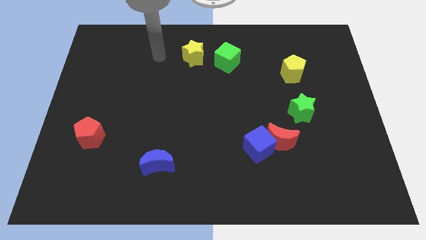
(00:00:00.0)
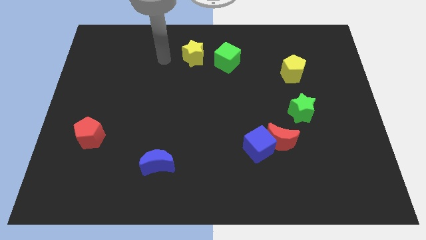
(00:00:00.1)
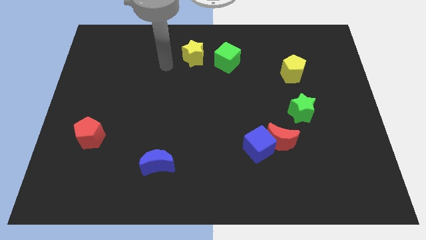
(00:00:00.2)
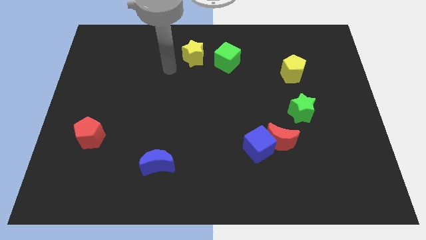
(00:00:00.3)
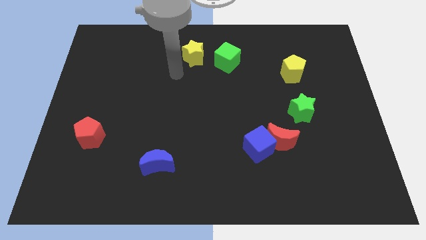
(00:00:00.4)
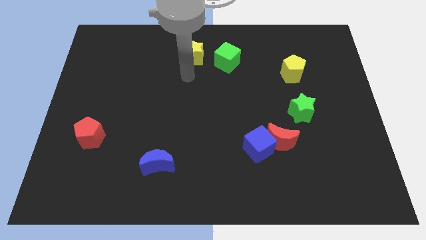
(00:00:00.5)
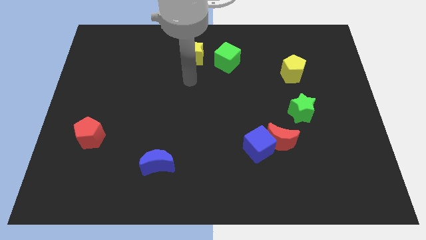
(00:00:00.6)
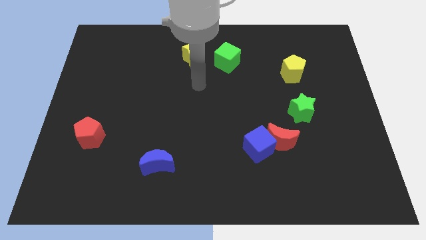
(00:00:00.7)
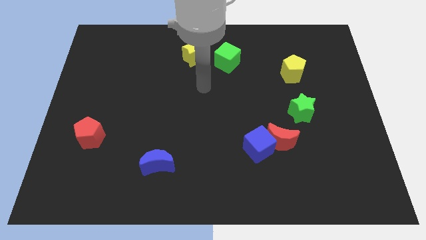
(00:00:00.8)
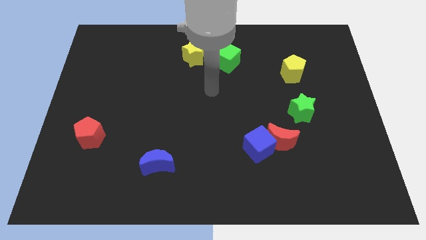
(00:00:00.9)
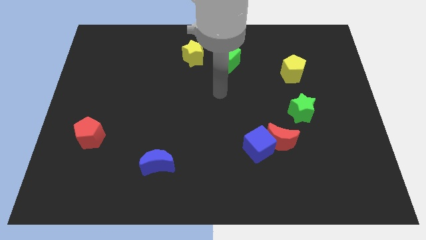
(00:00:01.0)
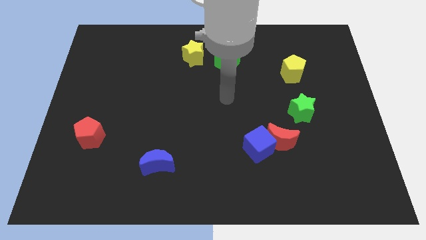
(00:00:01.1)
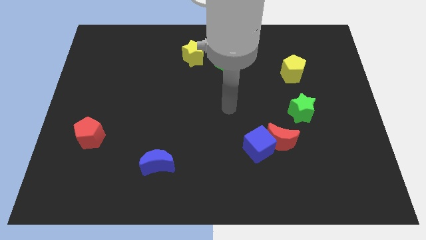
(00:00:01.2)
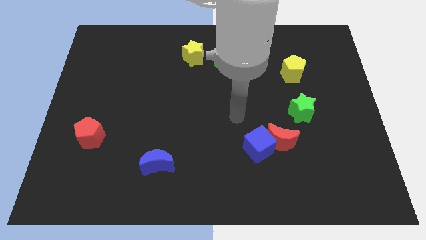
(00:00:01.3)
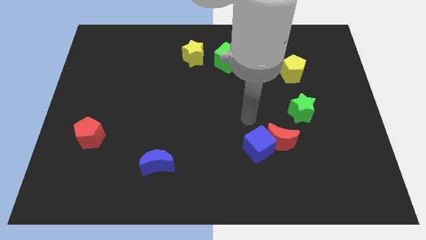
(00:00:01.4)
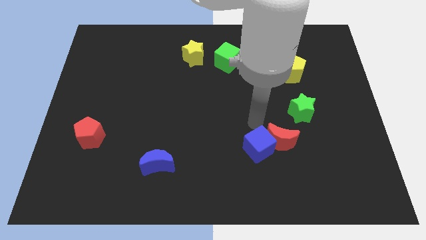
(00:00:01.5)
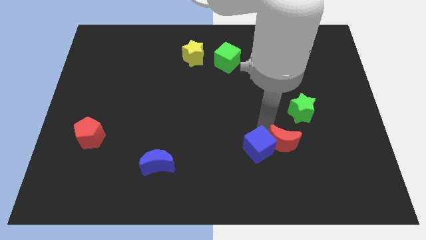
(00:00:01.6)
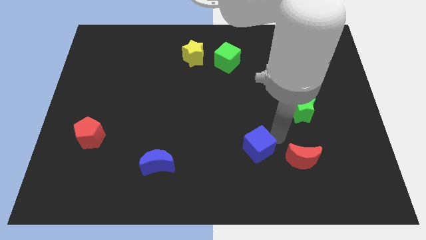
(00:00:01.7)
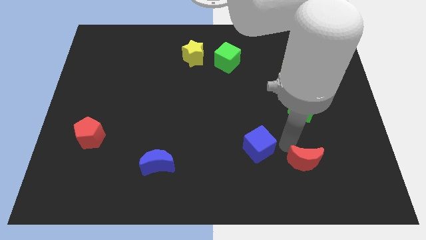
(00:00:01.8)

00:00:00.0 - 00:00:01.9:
separate the blue cube from the red moon

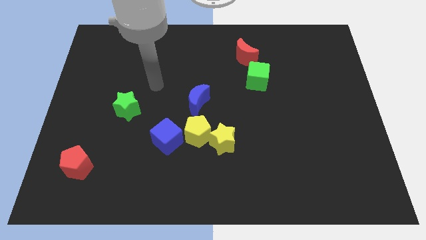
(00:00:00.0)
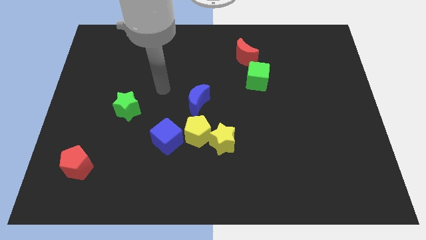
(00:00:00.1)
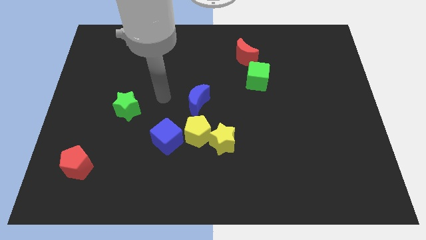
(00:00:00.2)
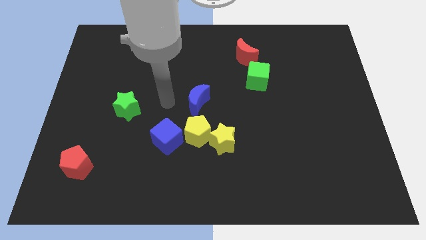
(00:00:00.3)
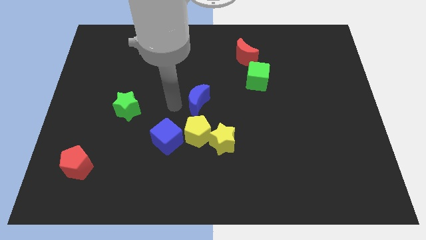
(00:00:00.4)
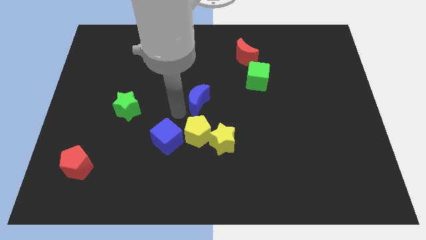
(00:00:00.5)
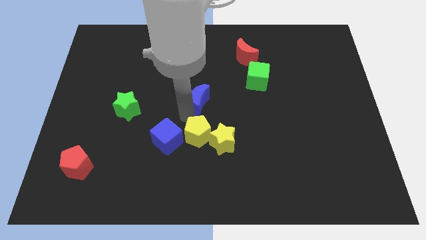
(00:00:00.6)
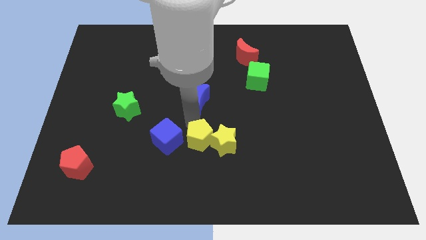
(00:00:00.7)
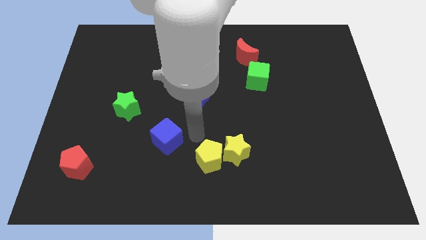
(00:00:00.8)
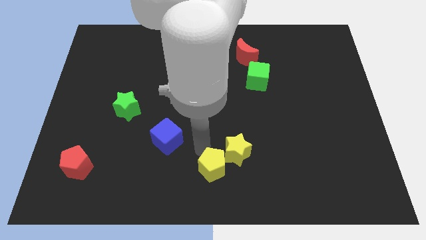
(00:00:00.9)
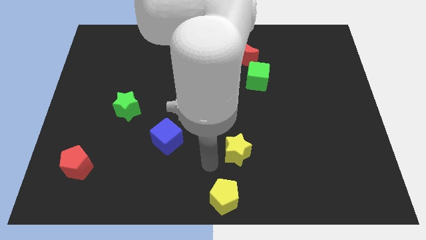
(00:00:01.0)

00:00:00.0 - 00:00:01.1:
pull the yellow star apart from the yellow pentagon

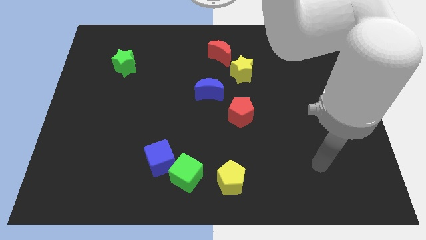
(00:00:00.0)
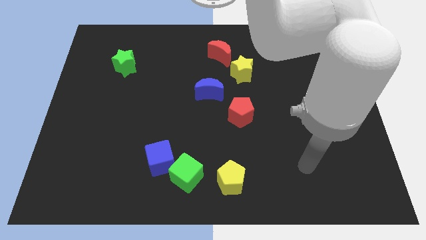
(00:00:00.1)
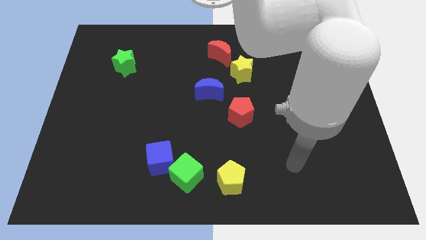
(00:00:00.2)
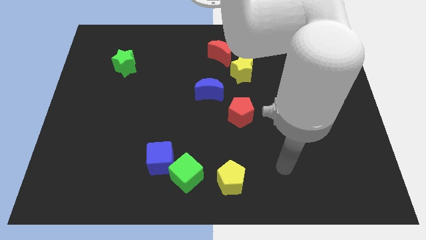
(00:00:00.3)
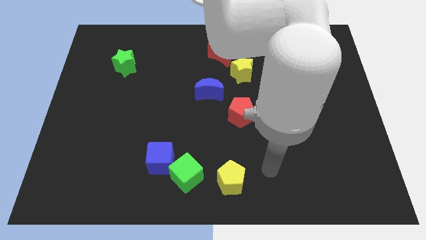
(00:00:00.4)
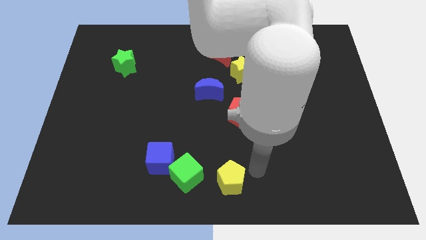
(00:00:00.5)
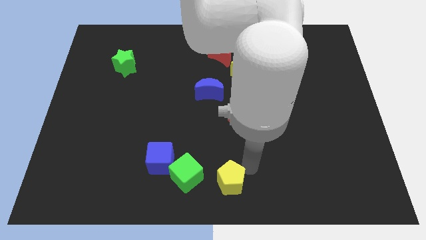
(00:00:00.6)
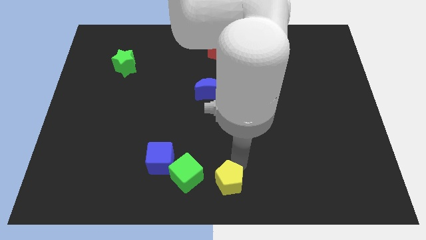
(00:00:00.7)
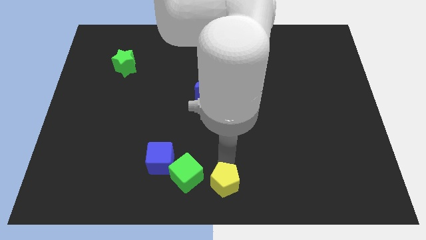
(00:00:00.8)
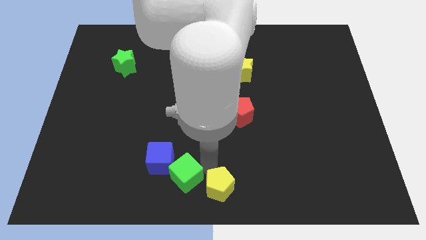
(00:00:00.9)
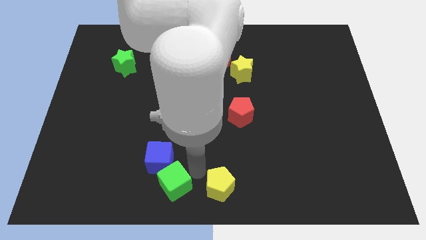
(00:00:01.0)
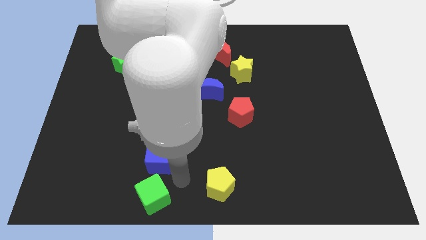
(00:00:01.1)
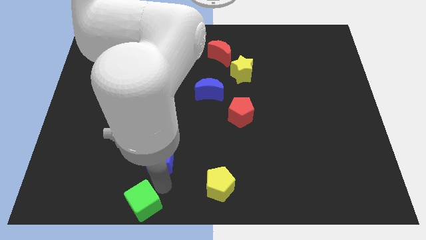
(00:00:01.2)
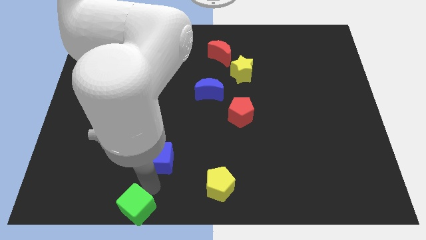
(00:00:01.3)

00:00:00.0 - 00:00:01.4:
separate the blue cube from the green cube

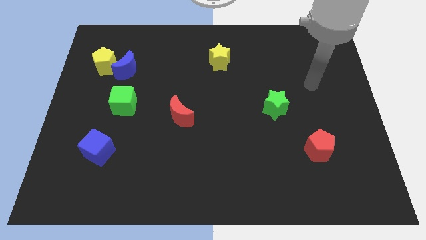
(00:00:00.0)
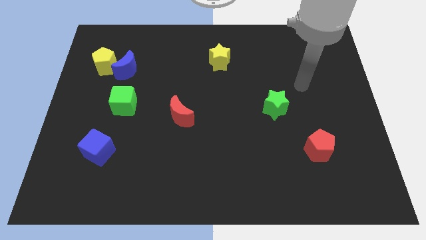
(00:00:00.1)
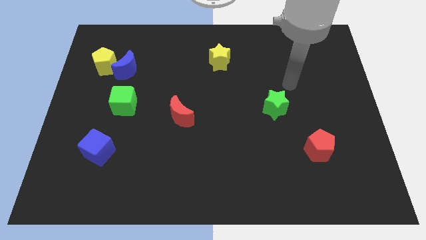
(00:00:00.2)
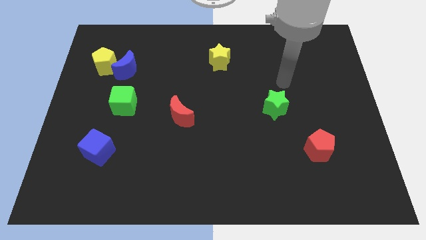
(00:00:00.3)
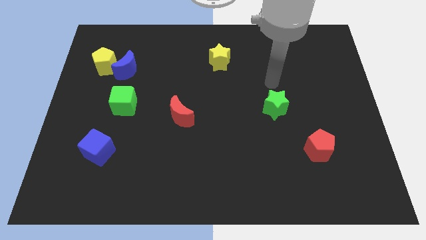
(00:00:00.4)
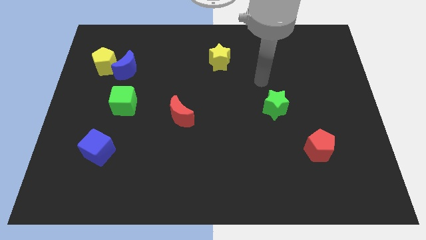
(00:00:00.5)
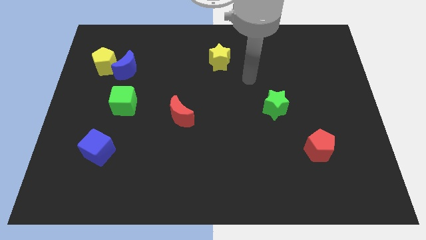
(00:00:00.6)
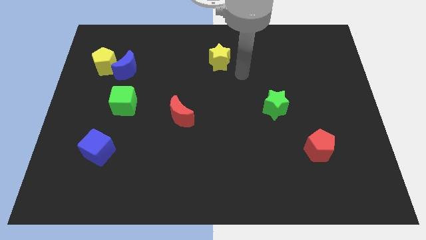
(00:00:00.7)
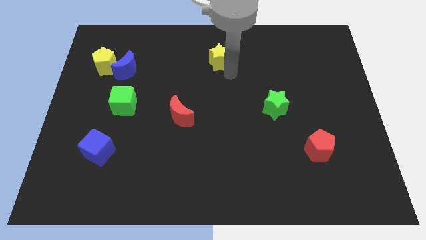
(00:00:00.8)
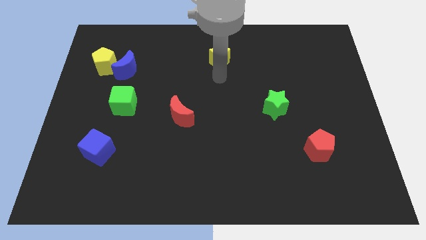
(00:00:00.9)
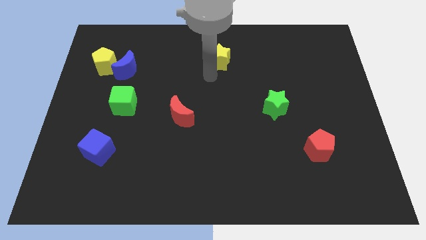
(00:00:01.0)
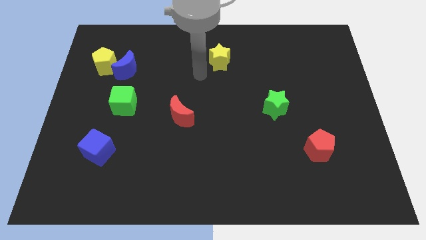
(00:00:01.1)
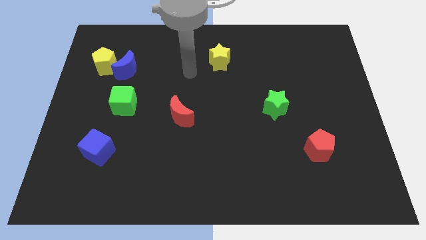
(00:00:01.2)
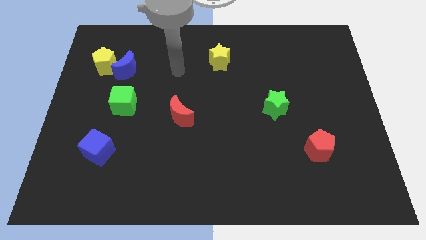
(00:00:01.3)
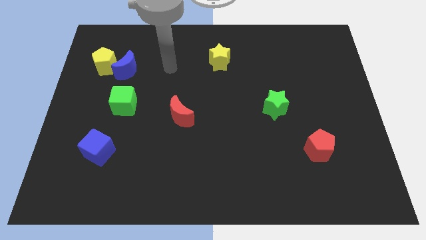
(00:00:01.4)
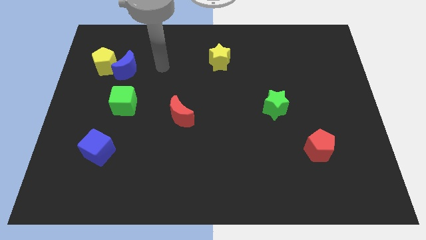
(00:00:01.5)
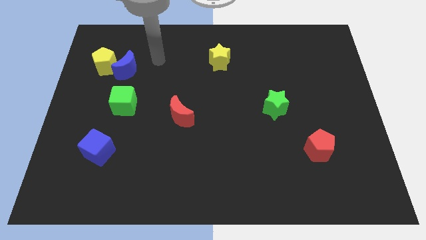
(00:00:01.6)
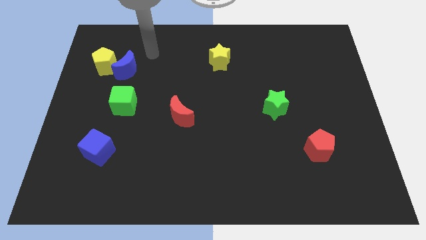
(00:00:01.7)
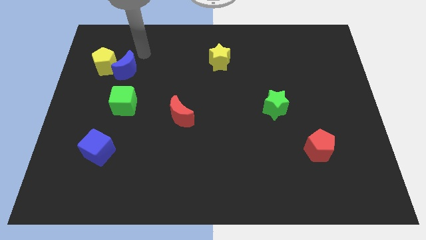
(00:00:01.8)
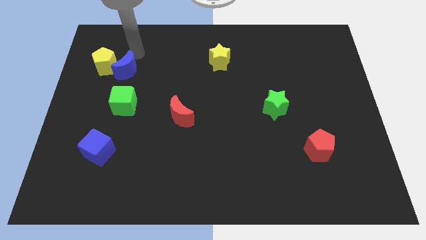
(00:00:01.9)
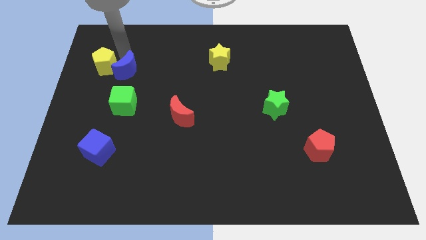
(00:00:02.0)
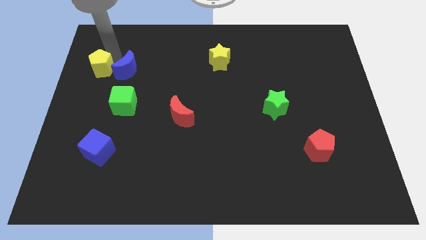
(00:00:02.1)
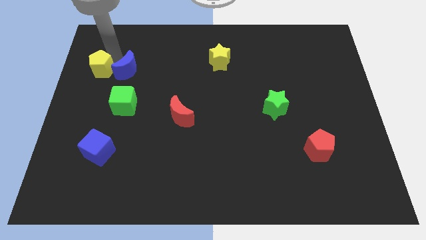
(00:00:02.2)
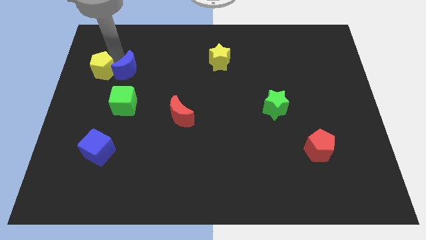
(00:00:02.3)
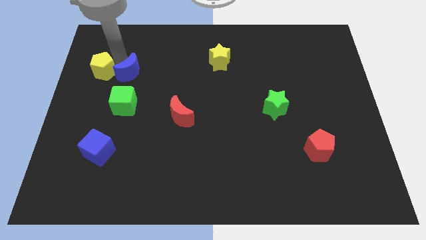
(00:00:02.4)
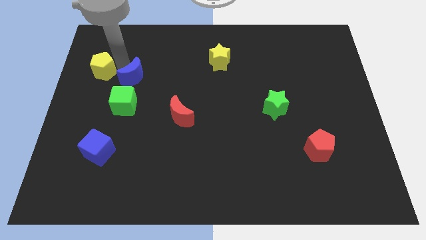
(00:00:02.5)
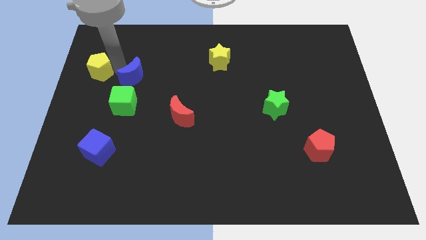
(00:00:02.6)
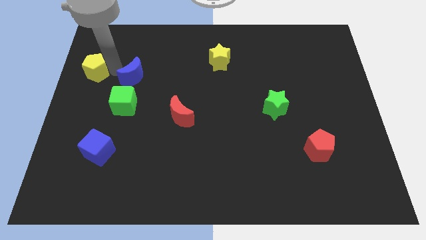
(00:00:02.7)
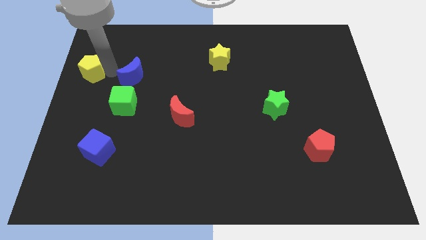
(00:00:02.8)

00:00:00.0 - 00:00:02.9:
pull the blue moon apart from the yellow pentagon

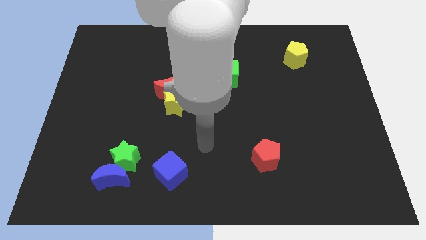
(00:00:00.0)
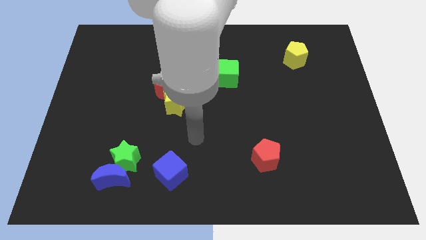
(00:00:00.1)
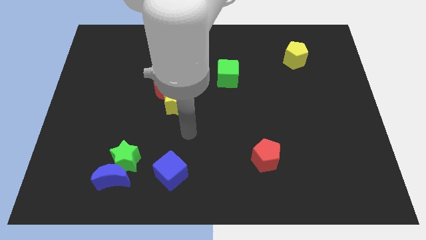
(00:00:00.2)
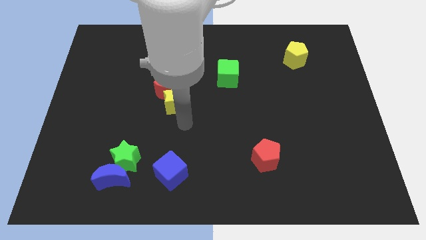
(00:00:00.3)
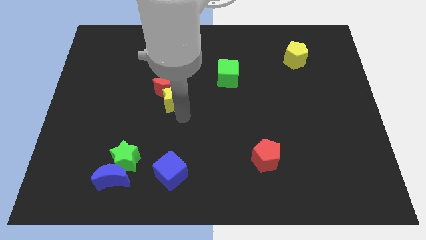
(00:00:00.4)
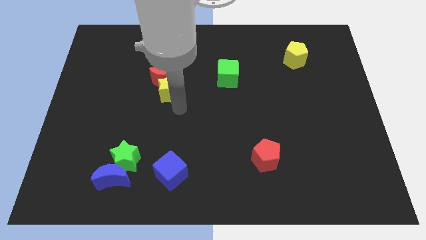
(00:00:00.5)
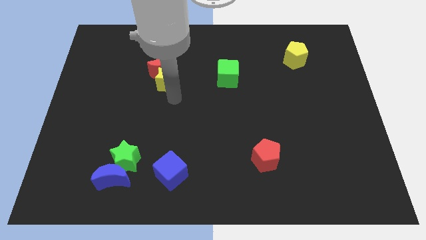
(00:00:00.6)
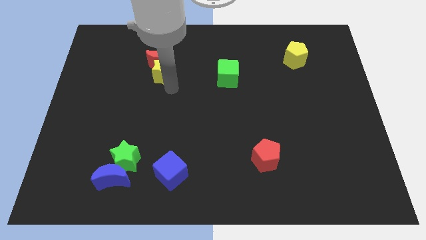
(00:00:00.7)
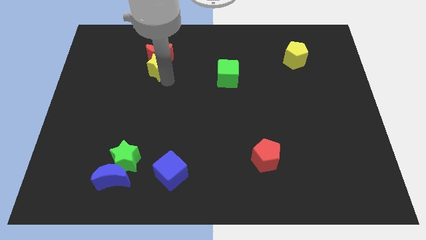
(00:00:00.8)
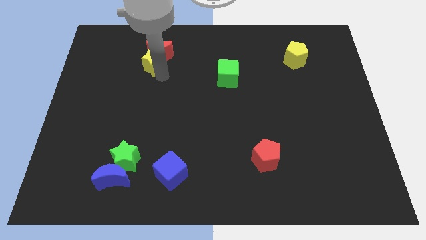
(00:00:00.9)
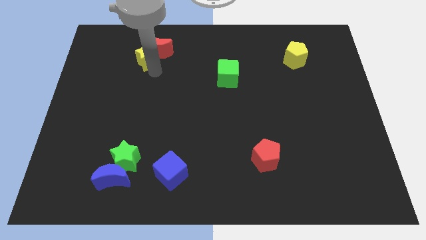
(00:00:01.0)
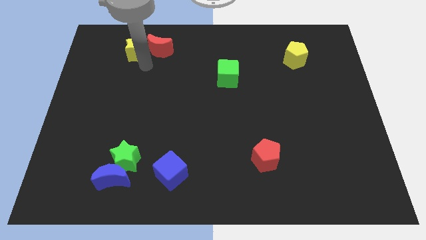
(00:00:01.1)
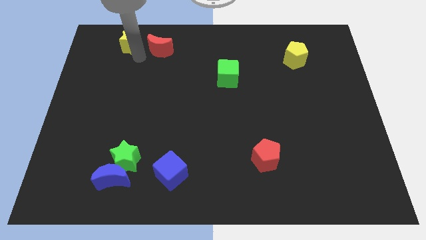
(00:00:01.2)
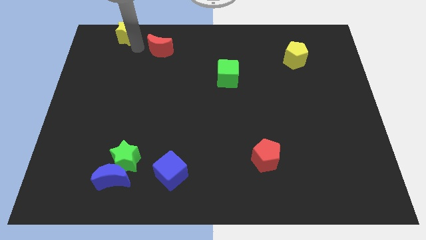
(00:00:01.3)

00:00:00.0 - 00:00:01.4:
move the red moon away from the yellow star

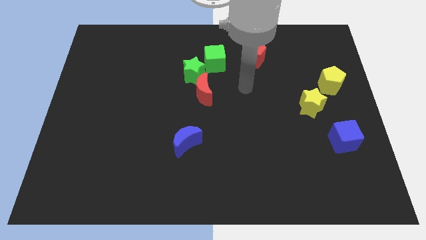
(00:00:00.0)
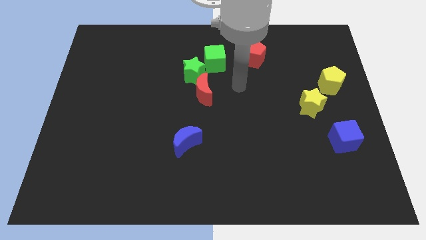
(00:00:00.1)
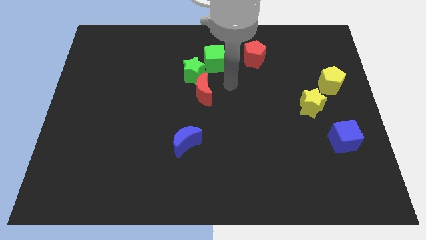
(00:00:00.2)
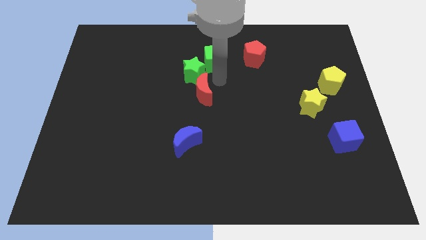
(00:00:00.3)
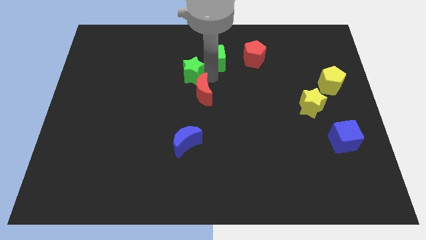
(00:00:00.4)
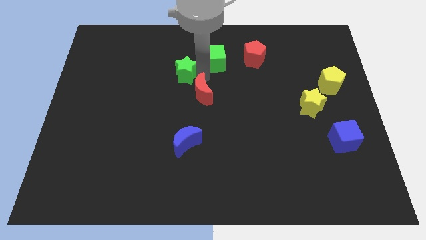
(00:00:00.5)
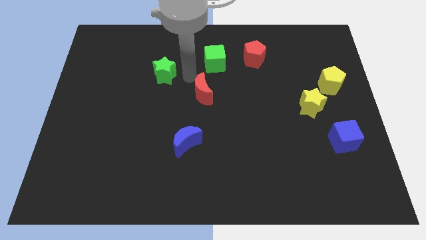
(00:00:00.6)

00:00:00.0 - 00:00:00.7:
separate the red moon from the green star
